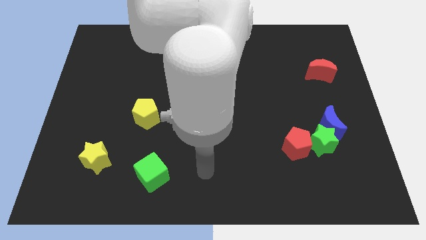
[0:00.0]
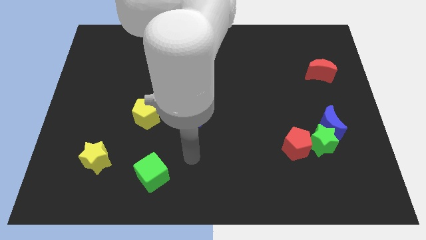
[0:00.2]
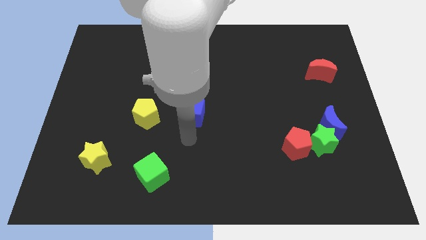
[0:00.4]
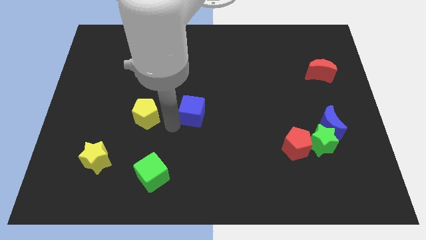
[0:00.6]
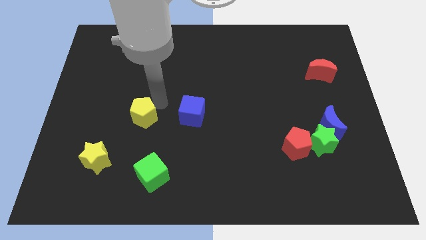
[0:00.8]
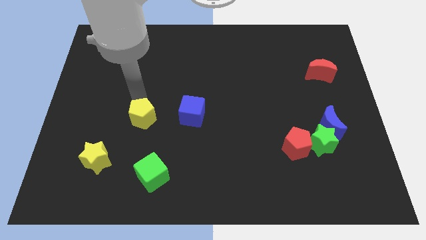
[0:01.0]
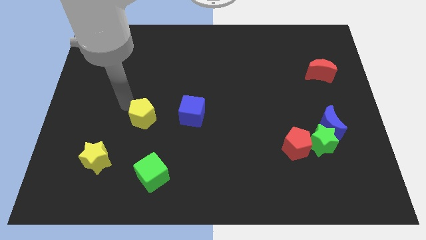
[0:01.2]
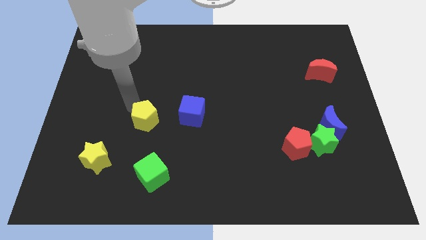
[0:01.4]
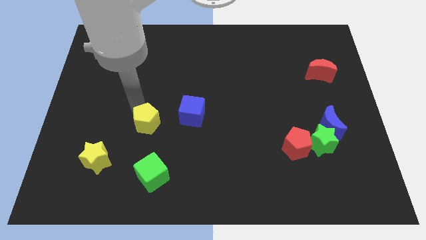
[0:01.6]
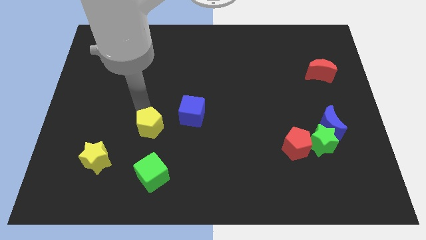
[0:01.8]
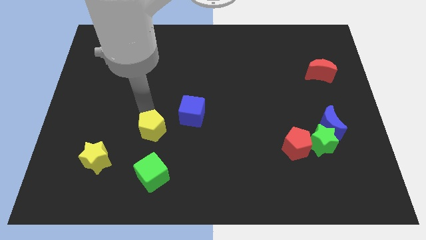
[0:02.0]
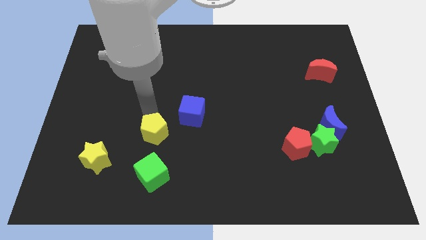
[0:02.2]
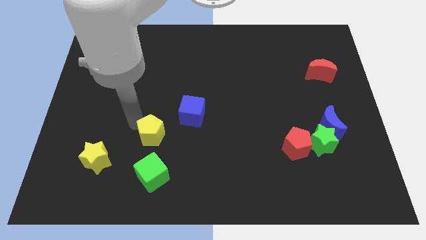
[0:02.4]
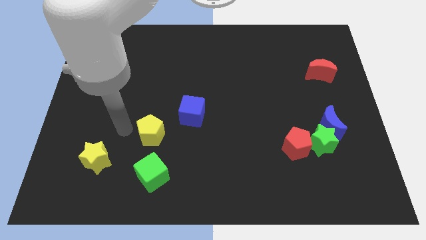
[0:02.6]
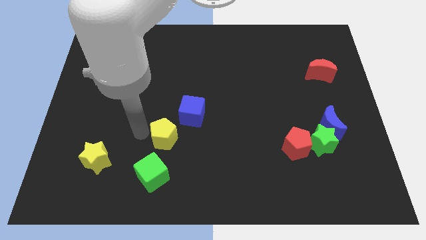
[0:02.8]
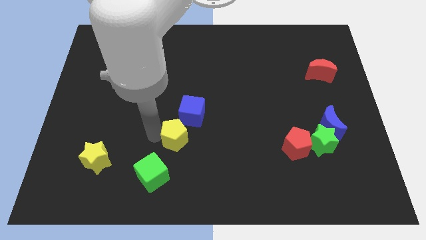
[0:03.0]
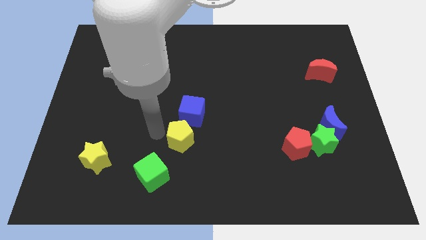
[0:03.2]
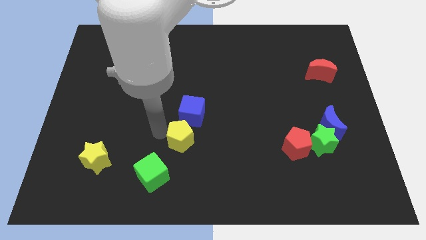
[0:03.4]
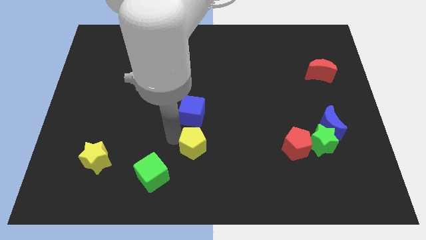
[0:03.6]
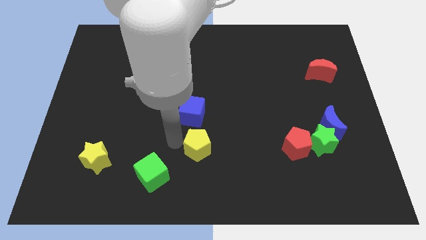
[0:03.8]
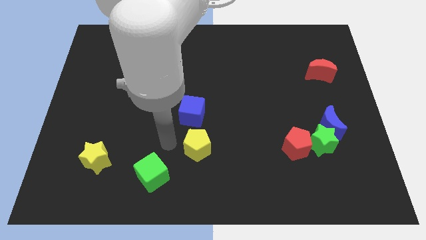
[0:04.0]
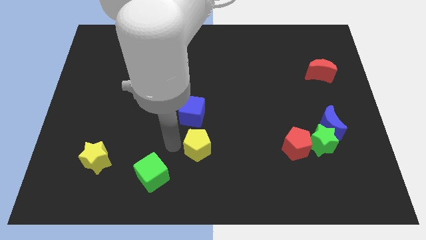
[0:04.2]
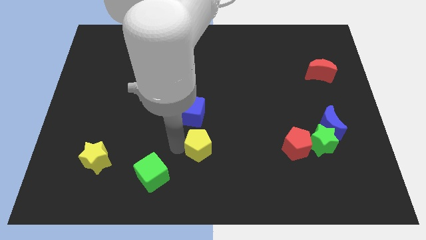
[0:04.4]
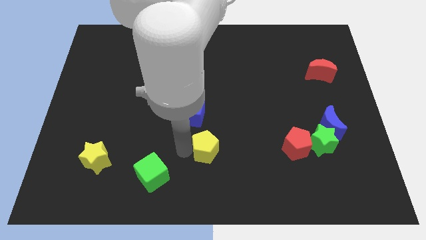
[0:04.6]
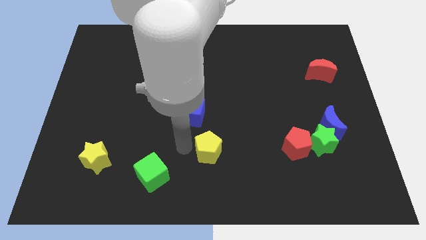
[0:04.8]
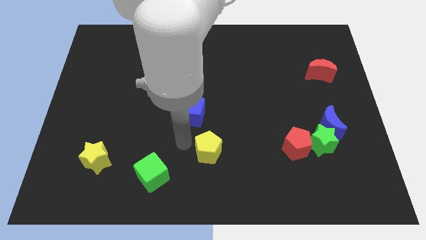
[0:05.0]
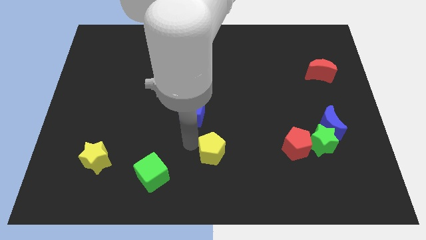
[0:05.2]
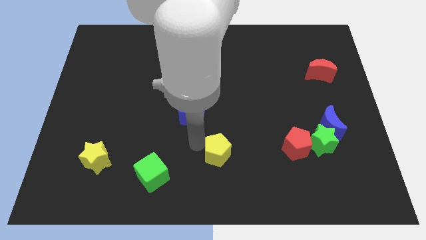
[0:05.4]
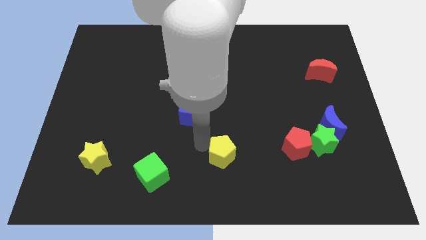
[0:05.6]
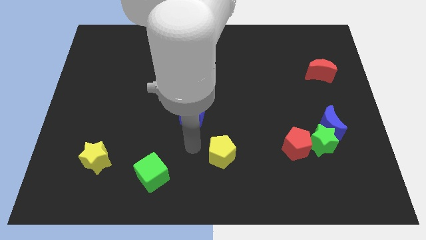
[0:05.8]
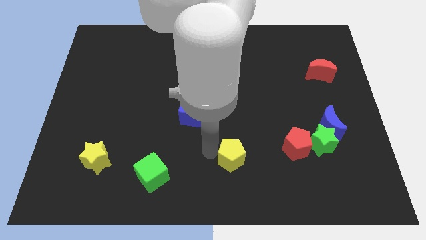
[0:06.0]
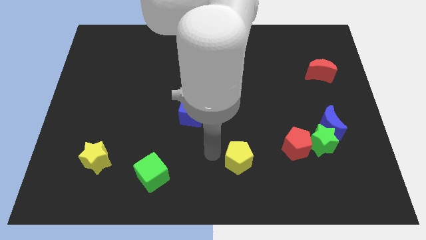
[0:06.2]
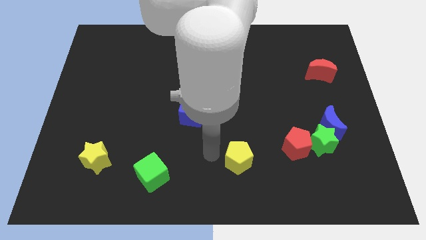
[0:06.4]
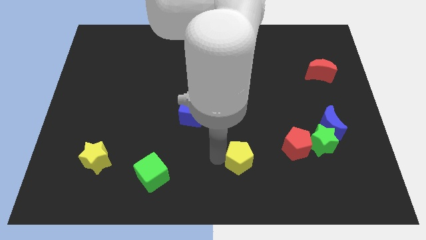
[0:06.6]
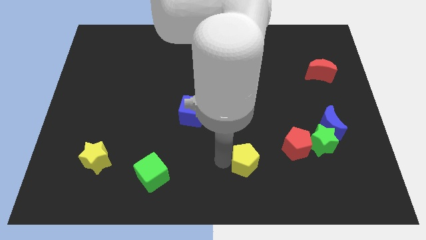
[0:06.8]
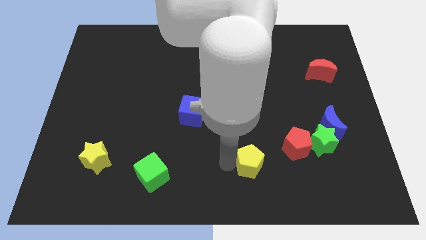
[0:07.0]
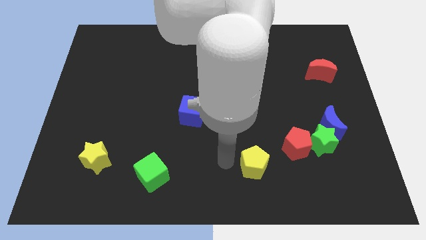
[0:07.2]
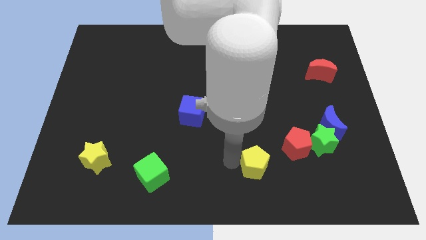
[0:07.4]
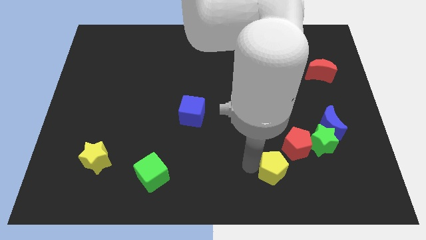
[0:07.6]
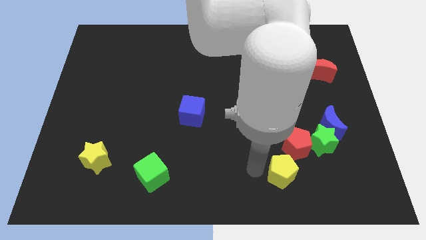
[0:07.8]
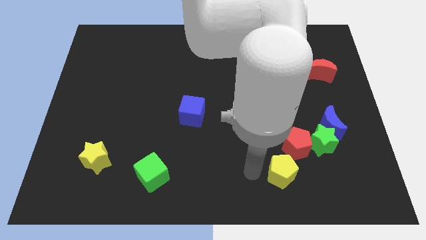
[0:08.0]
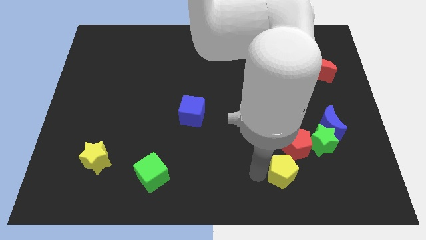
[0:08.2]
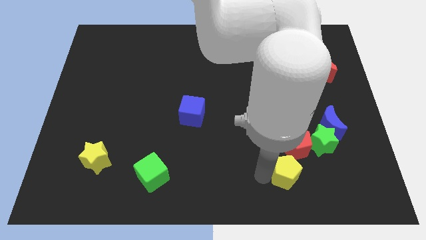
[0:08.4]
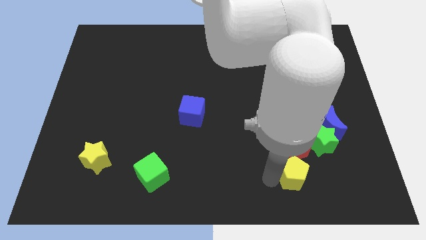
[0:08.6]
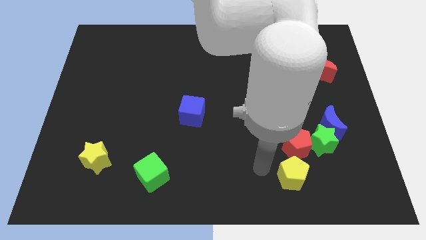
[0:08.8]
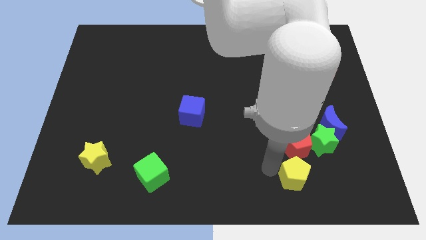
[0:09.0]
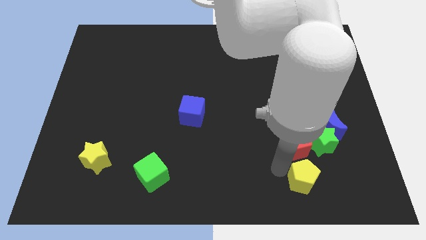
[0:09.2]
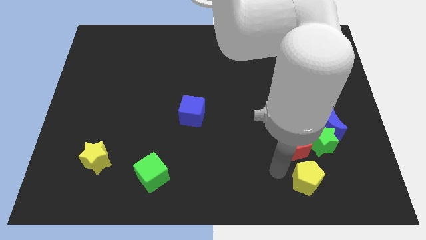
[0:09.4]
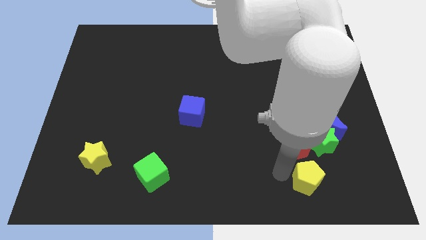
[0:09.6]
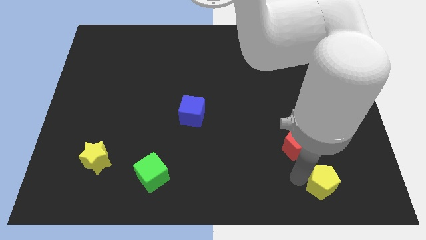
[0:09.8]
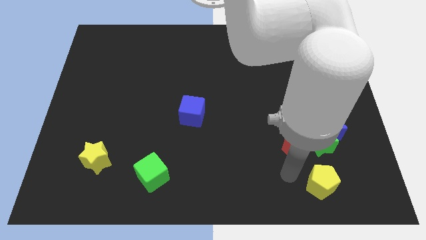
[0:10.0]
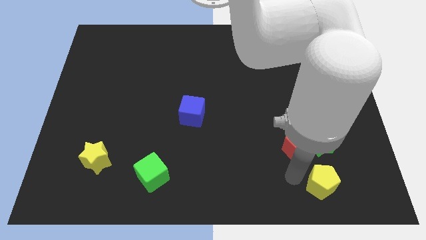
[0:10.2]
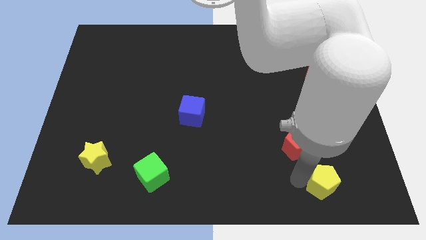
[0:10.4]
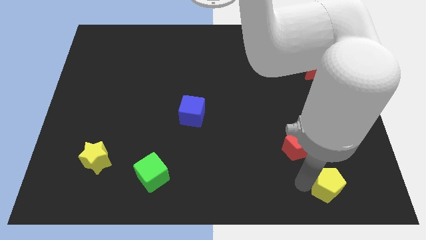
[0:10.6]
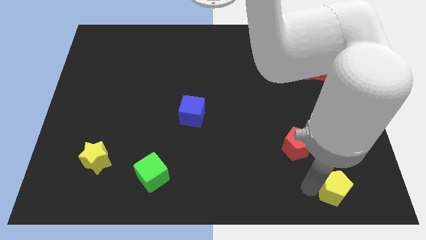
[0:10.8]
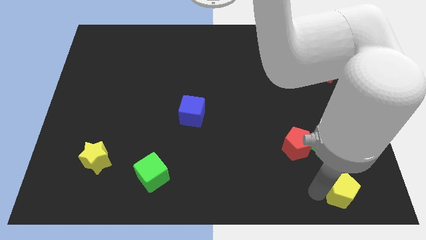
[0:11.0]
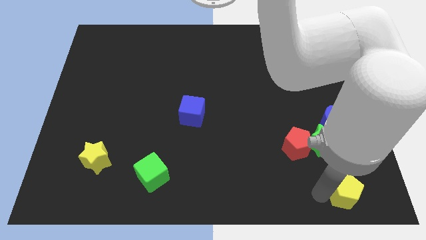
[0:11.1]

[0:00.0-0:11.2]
push the yellow pentagon to the bottom right

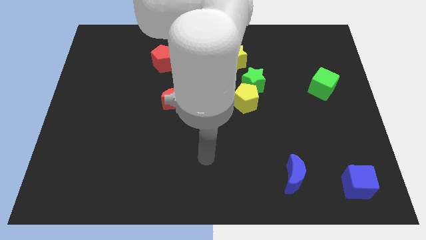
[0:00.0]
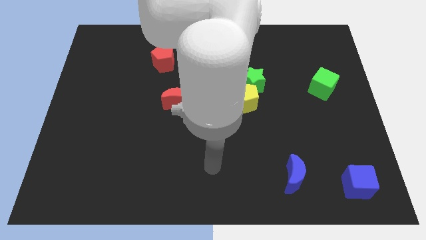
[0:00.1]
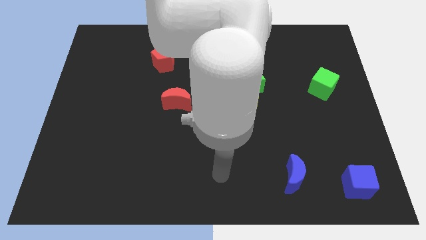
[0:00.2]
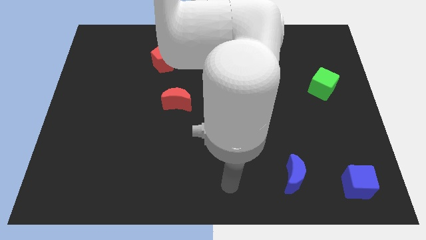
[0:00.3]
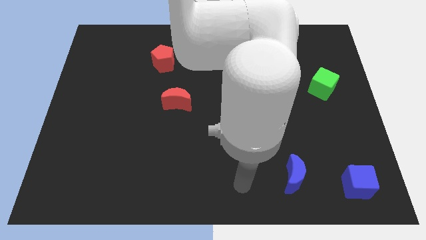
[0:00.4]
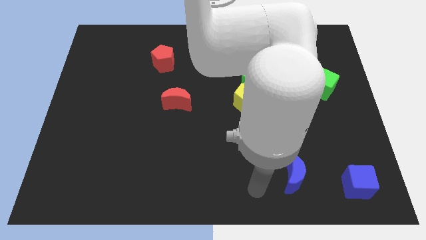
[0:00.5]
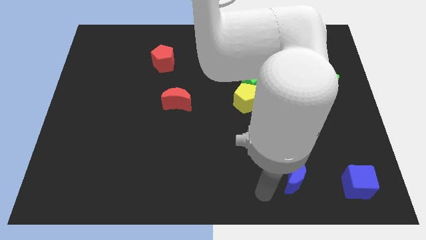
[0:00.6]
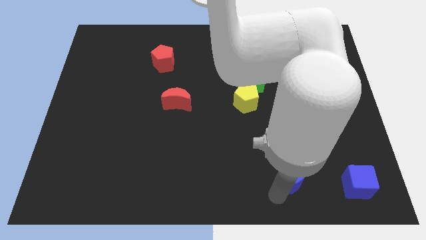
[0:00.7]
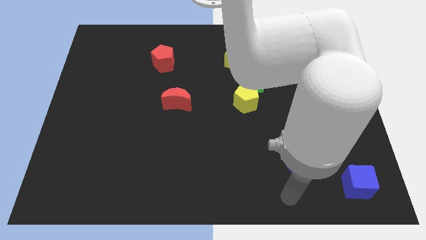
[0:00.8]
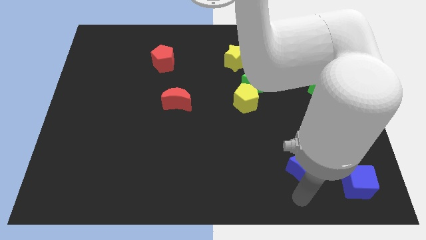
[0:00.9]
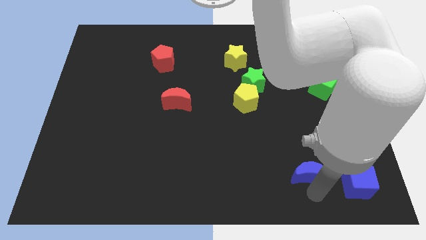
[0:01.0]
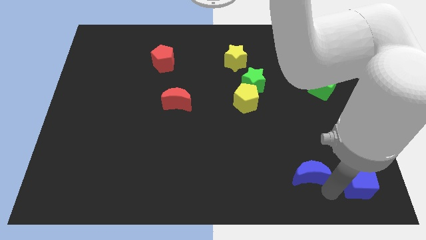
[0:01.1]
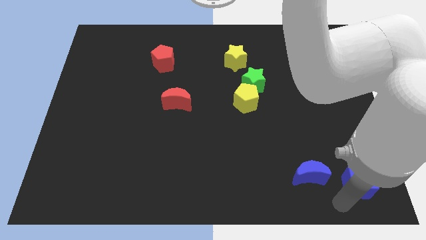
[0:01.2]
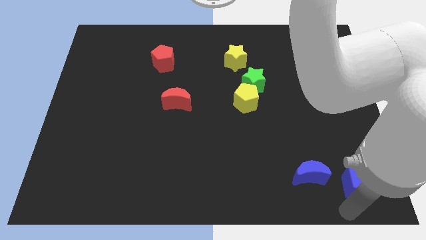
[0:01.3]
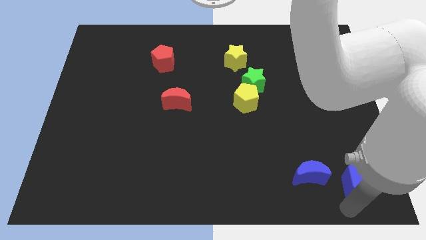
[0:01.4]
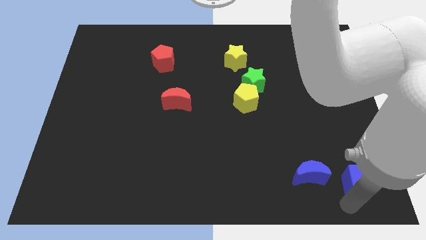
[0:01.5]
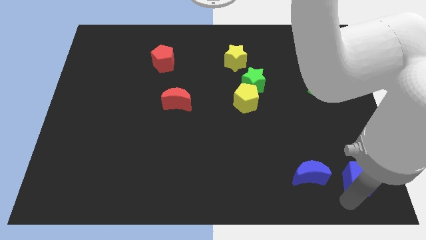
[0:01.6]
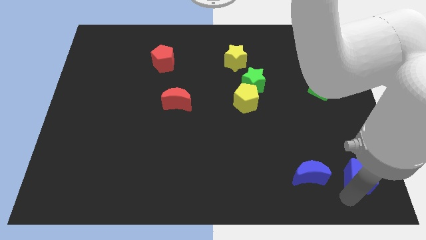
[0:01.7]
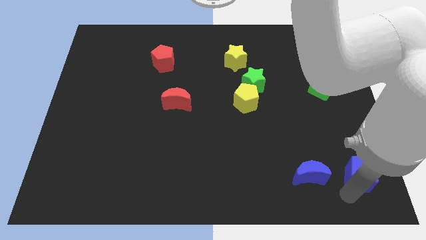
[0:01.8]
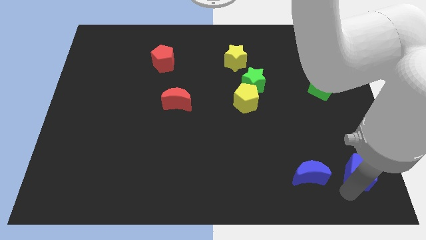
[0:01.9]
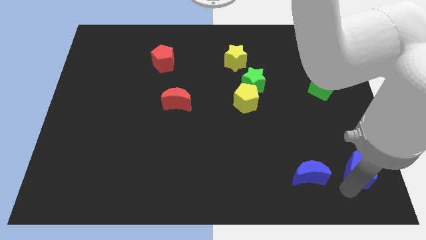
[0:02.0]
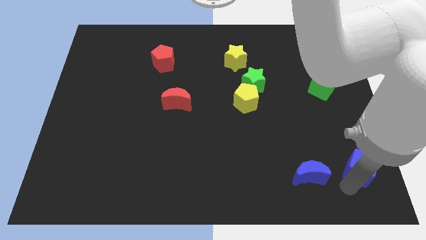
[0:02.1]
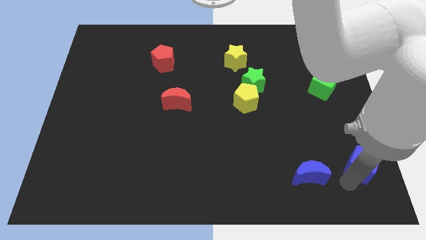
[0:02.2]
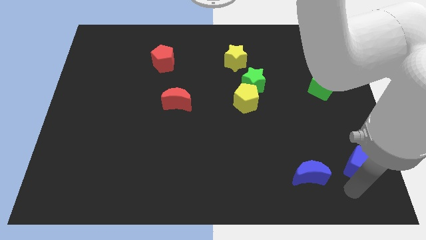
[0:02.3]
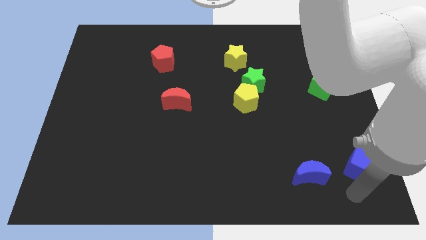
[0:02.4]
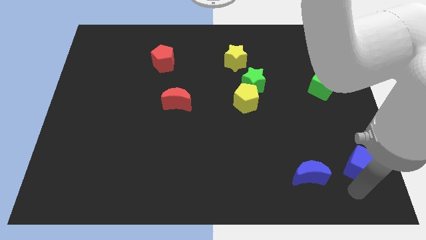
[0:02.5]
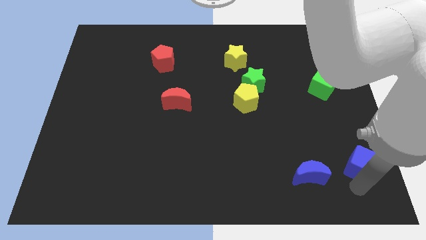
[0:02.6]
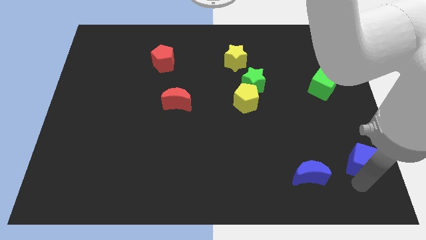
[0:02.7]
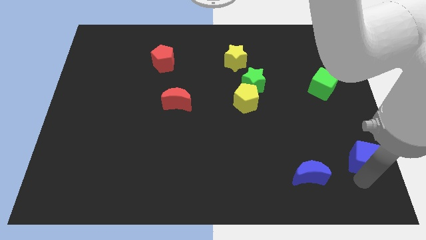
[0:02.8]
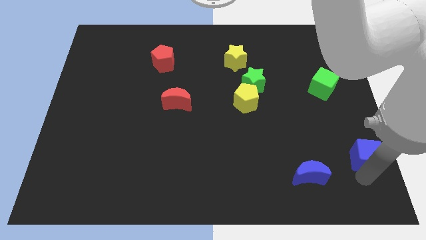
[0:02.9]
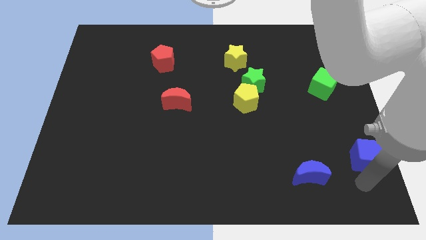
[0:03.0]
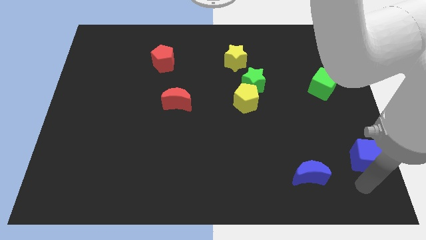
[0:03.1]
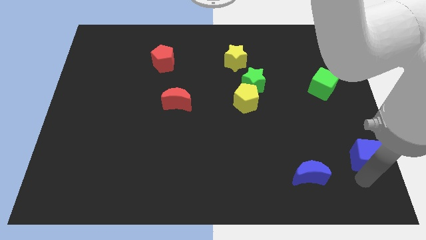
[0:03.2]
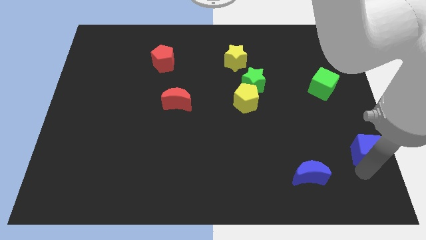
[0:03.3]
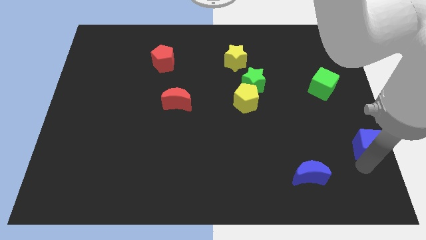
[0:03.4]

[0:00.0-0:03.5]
slide the blue cube to the center right
